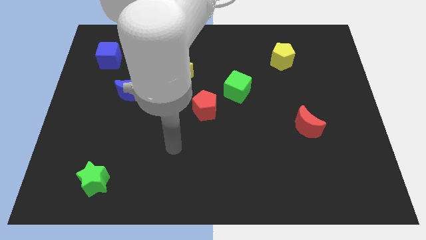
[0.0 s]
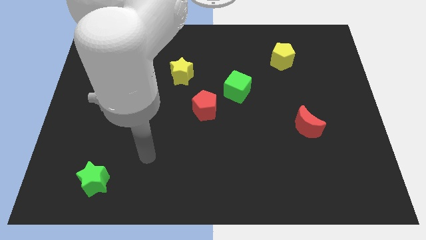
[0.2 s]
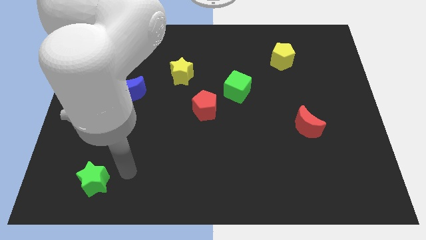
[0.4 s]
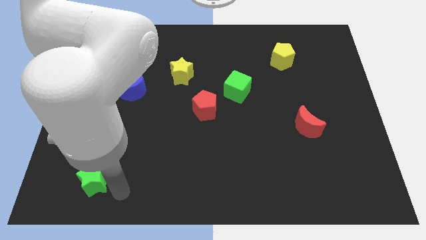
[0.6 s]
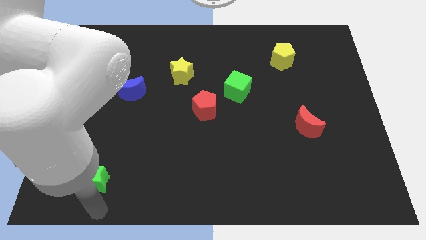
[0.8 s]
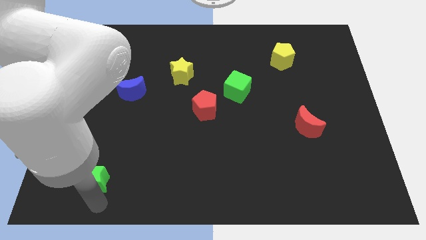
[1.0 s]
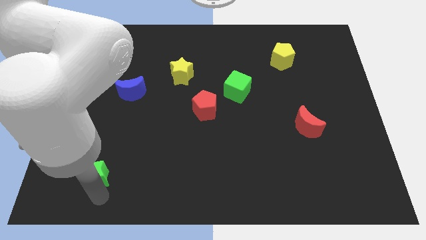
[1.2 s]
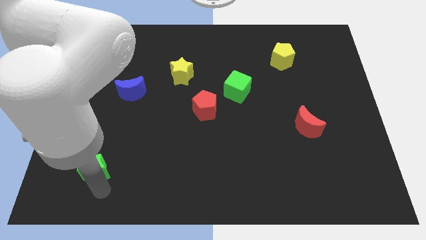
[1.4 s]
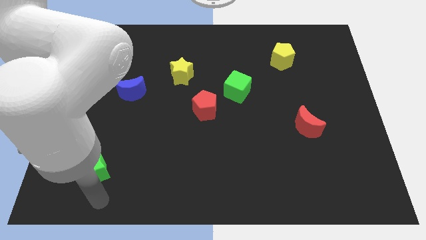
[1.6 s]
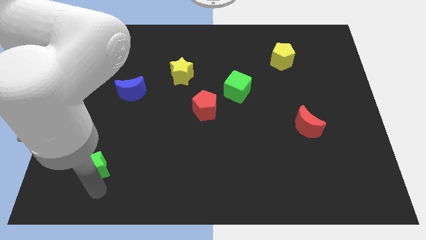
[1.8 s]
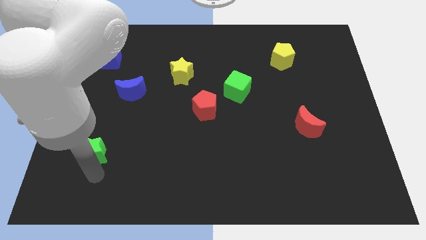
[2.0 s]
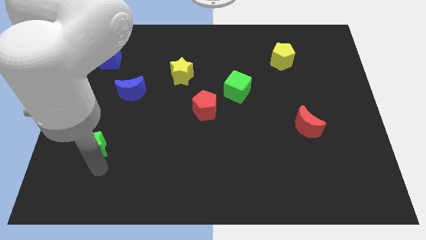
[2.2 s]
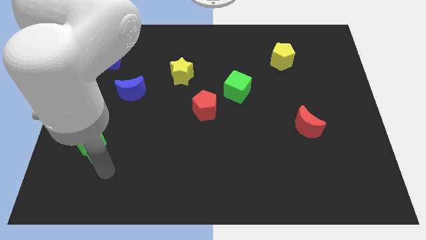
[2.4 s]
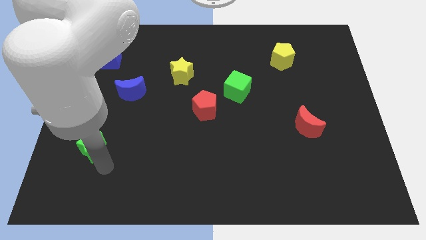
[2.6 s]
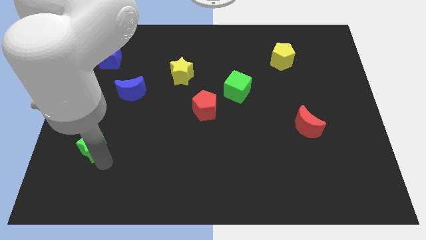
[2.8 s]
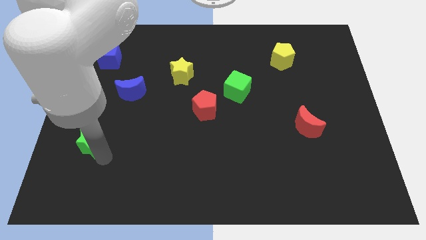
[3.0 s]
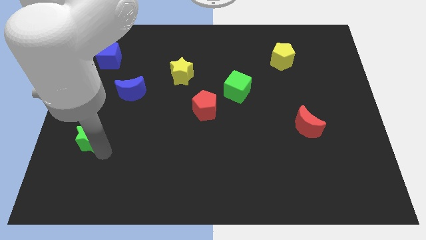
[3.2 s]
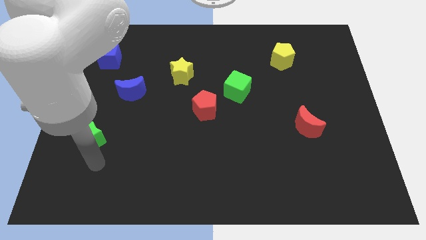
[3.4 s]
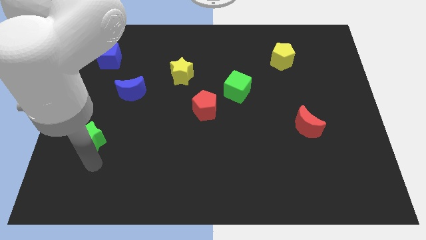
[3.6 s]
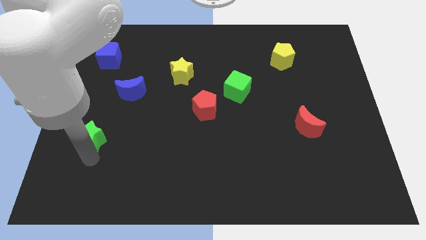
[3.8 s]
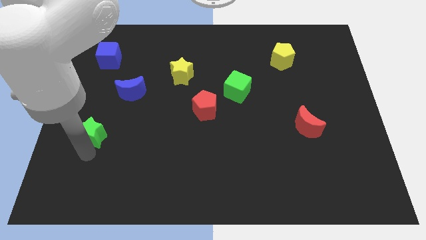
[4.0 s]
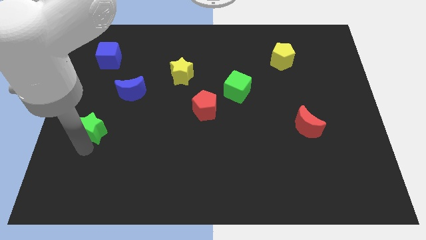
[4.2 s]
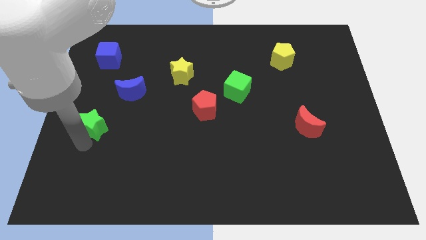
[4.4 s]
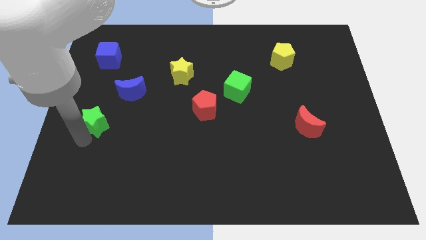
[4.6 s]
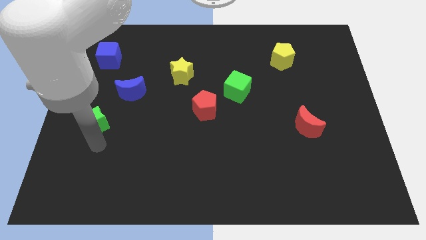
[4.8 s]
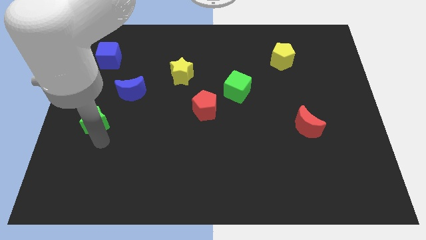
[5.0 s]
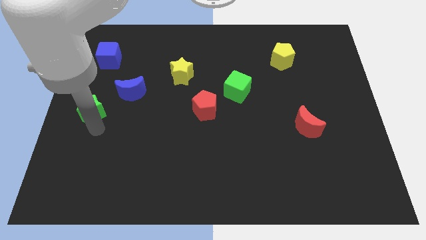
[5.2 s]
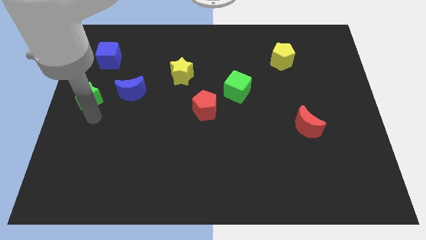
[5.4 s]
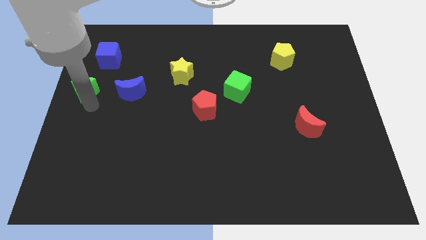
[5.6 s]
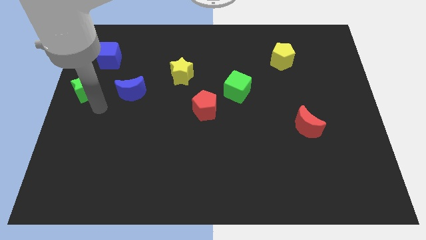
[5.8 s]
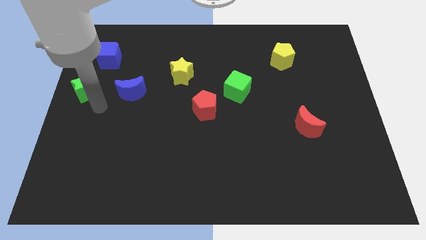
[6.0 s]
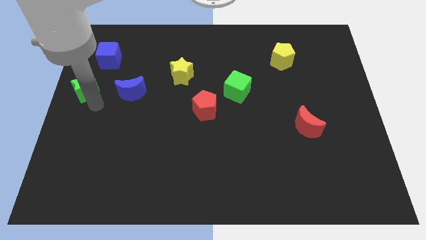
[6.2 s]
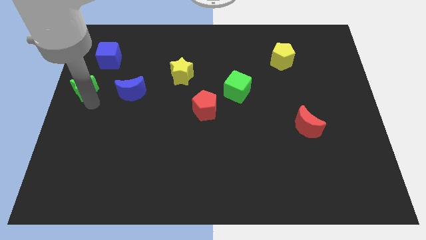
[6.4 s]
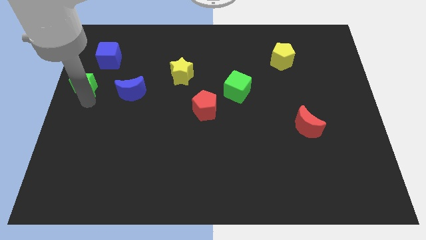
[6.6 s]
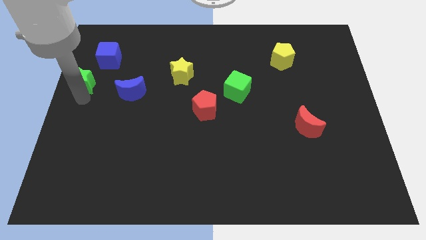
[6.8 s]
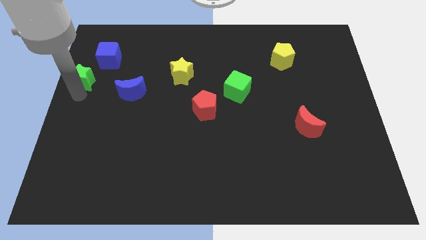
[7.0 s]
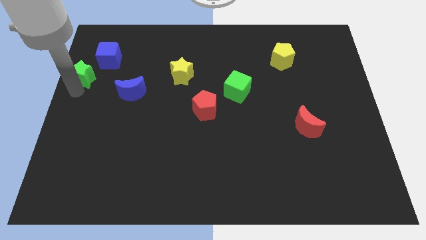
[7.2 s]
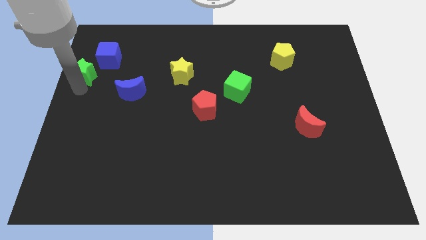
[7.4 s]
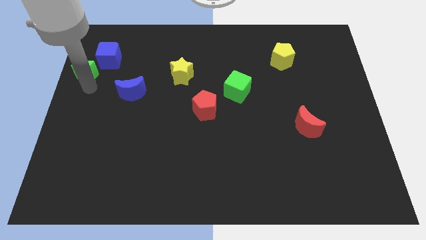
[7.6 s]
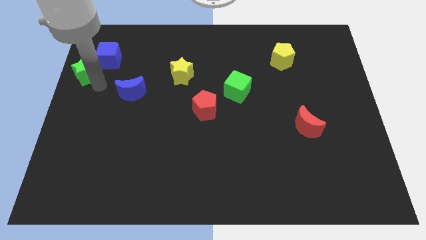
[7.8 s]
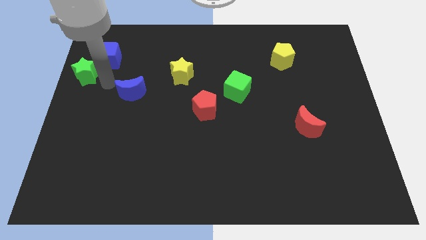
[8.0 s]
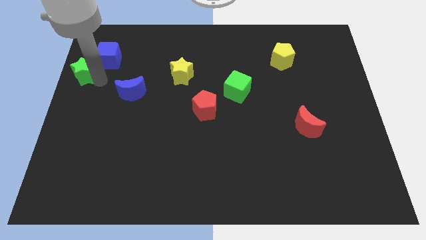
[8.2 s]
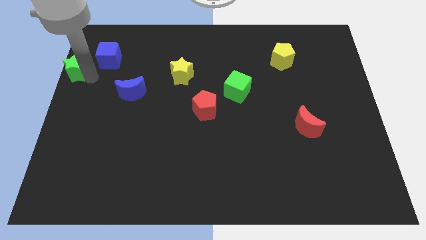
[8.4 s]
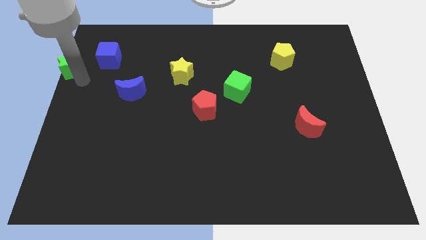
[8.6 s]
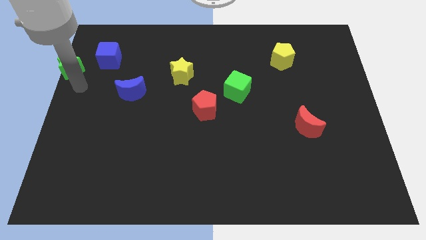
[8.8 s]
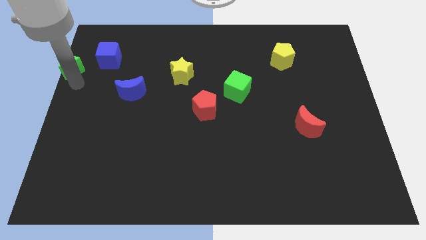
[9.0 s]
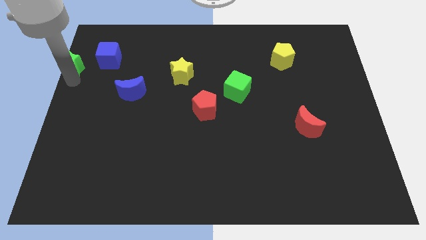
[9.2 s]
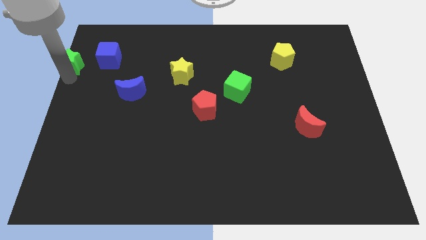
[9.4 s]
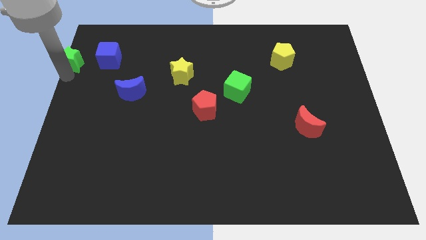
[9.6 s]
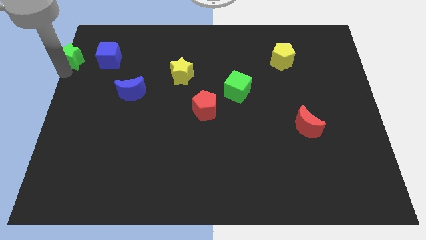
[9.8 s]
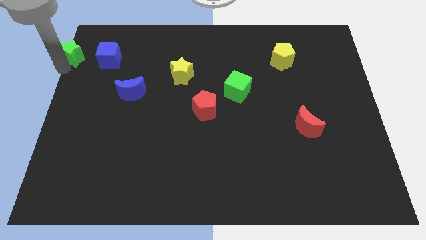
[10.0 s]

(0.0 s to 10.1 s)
slide the green star to the top left of the board
